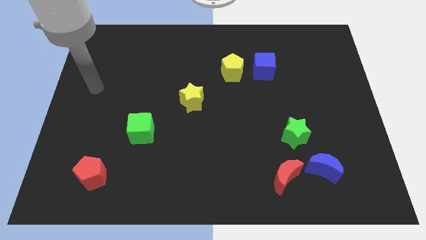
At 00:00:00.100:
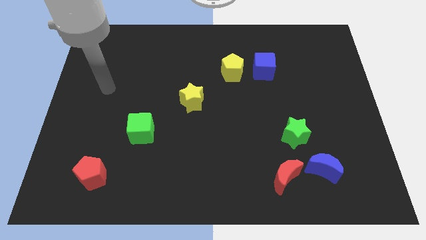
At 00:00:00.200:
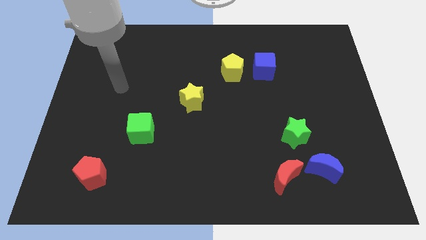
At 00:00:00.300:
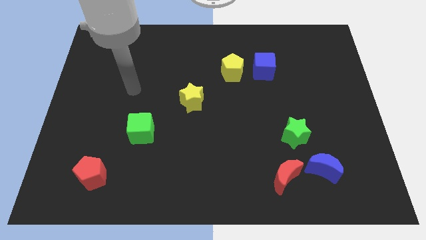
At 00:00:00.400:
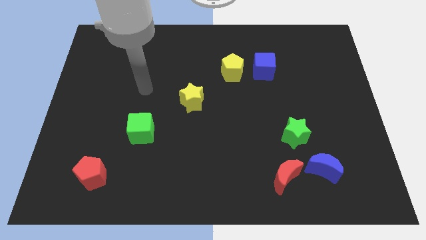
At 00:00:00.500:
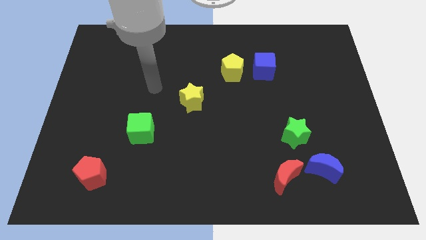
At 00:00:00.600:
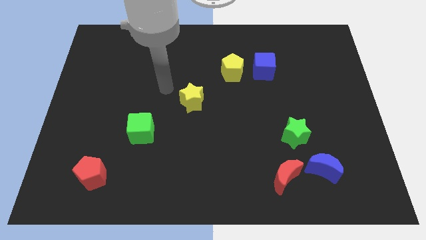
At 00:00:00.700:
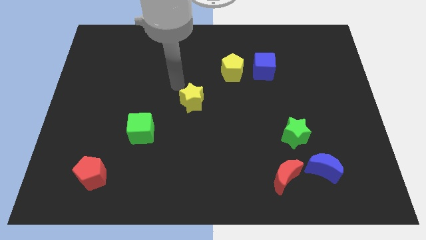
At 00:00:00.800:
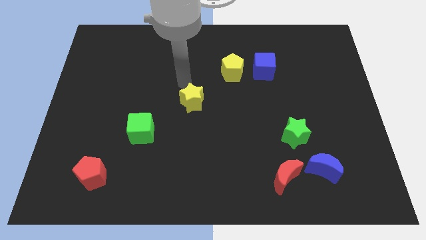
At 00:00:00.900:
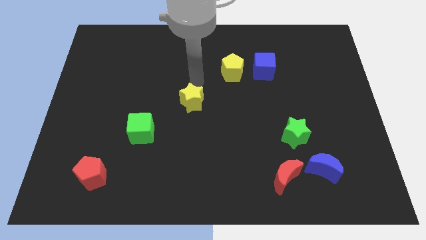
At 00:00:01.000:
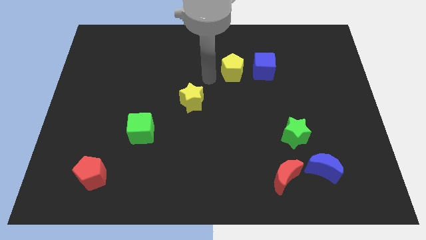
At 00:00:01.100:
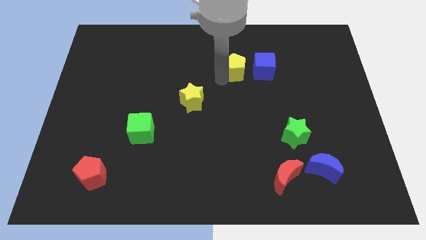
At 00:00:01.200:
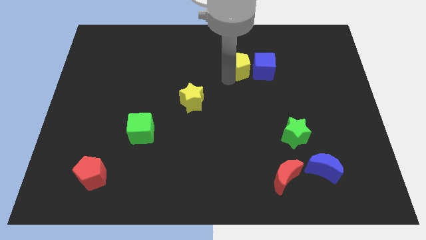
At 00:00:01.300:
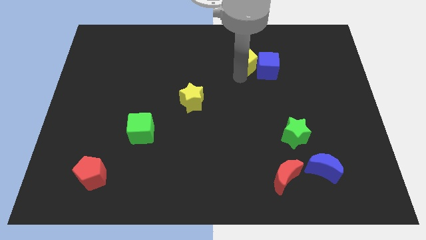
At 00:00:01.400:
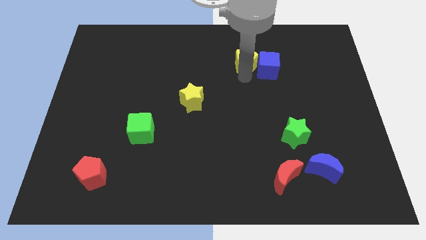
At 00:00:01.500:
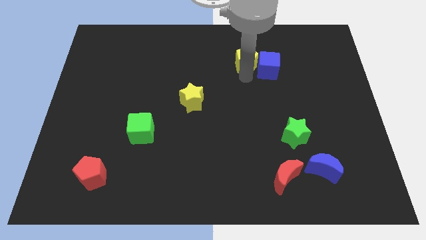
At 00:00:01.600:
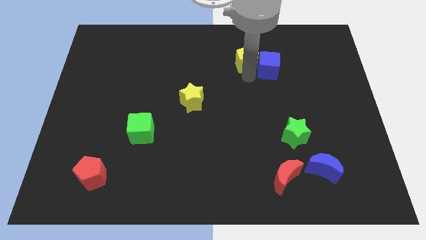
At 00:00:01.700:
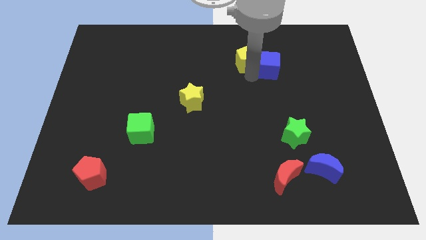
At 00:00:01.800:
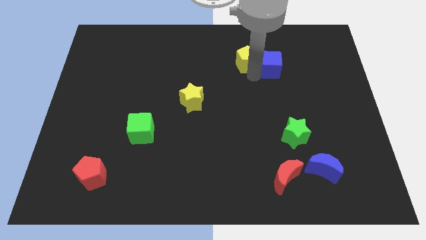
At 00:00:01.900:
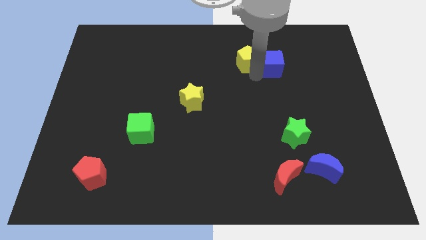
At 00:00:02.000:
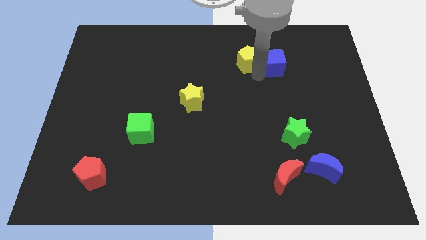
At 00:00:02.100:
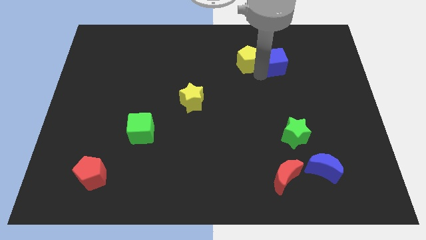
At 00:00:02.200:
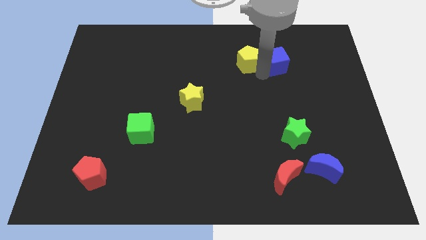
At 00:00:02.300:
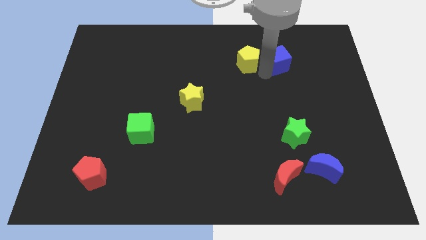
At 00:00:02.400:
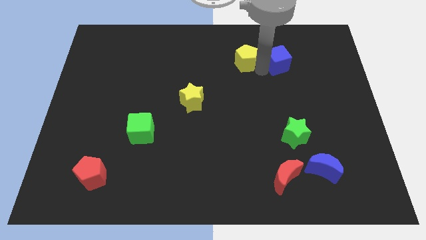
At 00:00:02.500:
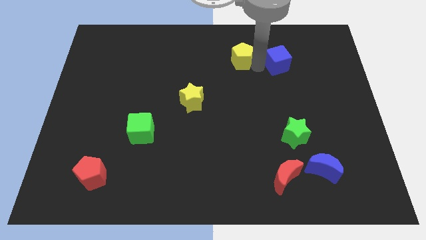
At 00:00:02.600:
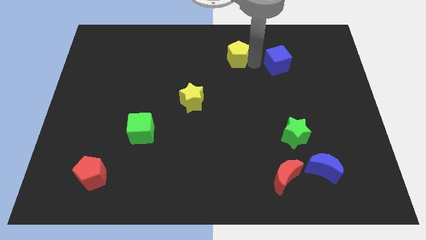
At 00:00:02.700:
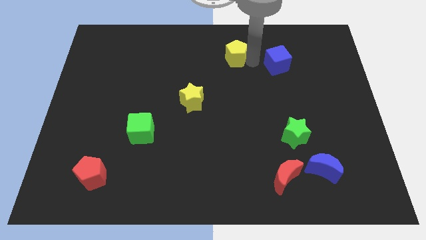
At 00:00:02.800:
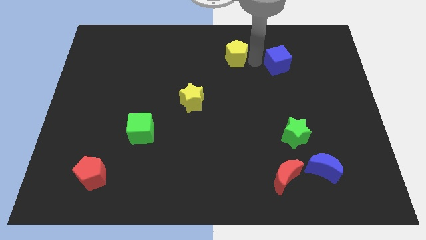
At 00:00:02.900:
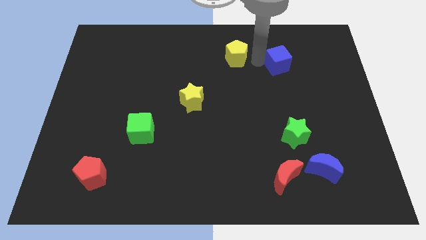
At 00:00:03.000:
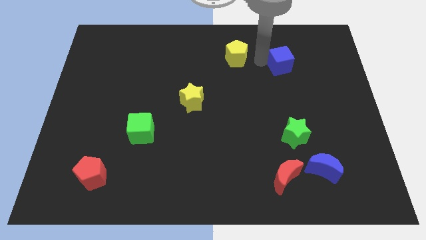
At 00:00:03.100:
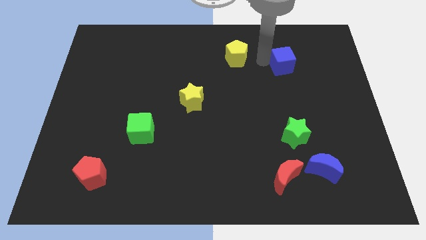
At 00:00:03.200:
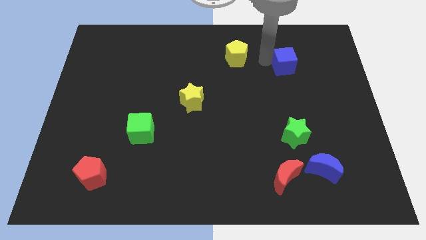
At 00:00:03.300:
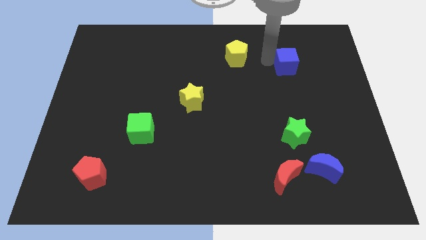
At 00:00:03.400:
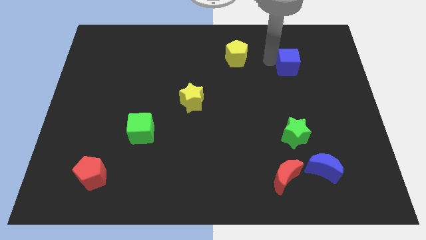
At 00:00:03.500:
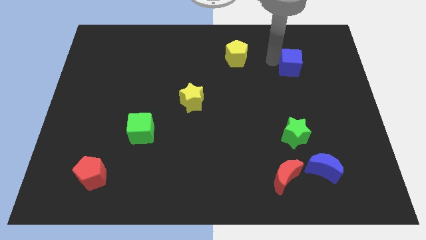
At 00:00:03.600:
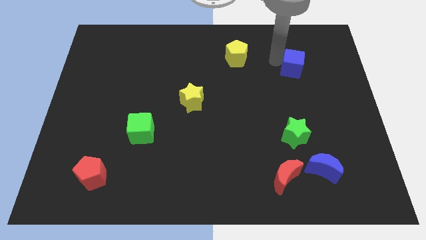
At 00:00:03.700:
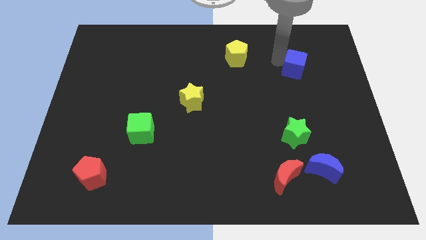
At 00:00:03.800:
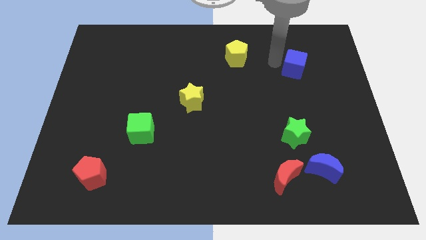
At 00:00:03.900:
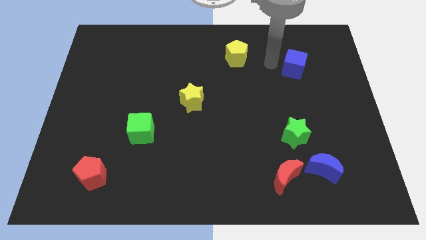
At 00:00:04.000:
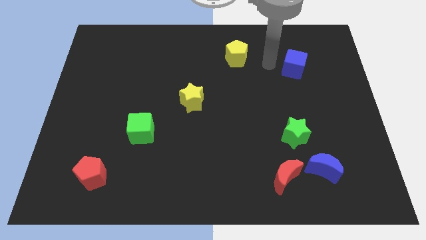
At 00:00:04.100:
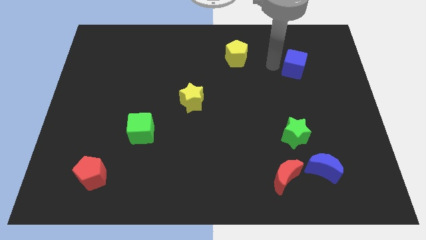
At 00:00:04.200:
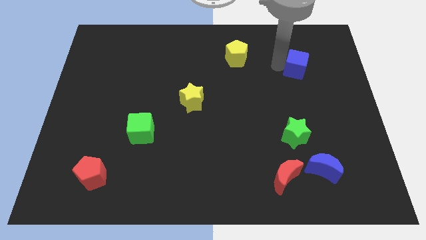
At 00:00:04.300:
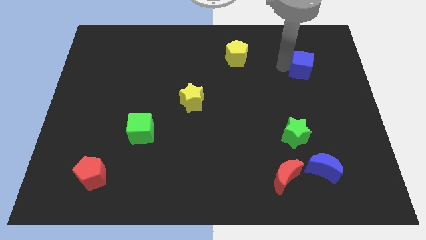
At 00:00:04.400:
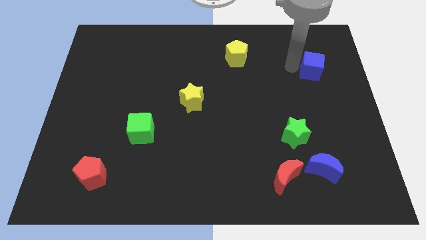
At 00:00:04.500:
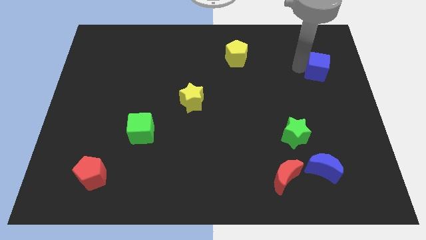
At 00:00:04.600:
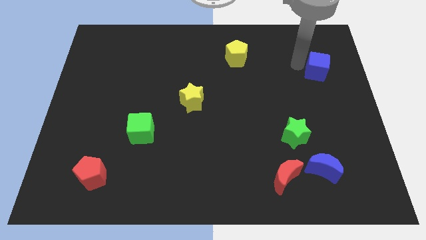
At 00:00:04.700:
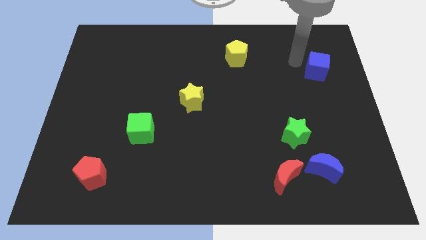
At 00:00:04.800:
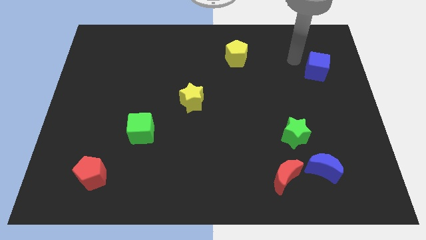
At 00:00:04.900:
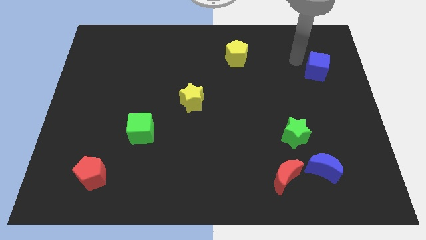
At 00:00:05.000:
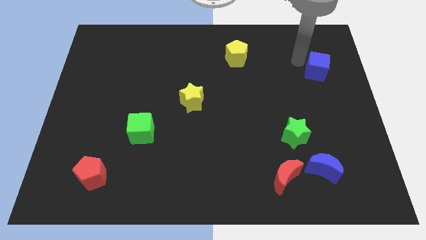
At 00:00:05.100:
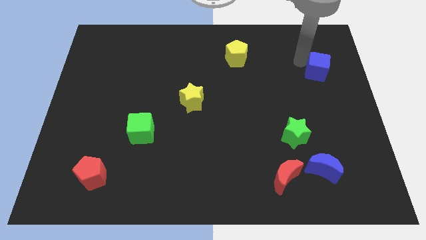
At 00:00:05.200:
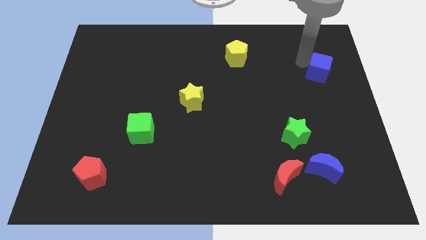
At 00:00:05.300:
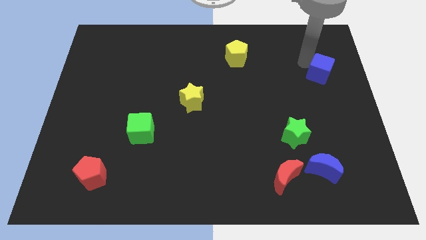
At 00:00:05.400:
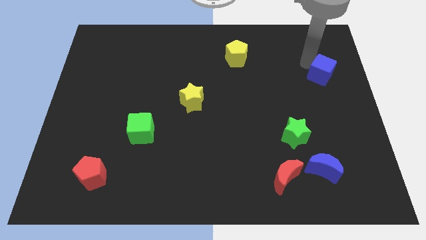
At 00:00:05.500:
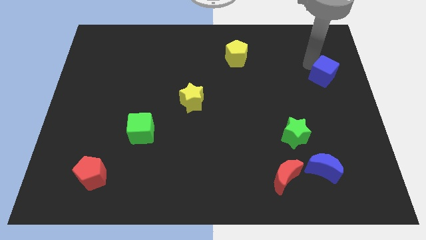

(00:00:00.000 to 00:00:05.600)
put the blue cube to the center right
